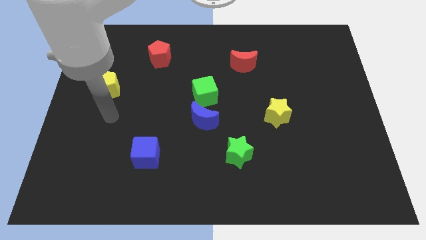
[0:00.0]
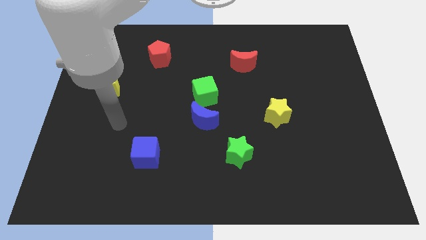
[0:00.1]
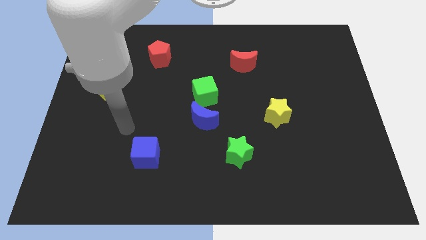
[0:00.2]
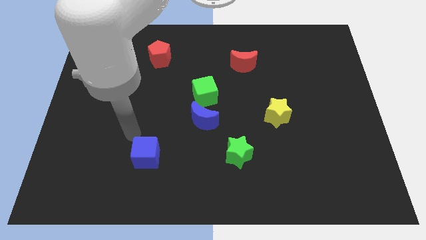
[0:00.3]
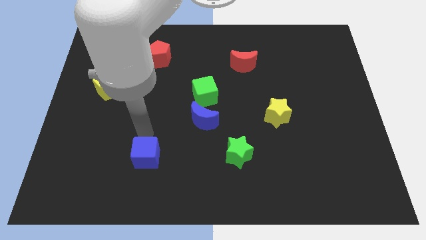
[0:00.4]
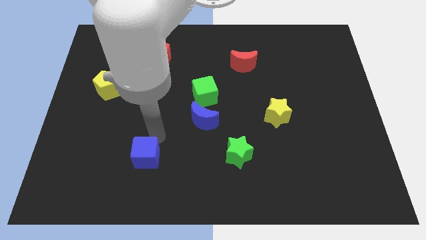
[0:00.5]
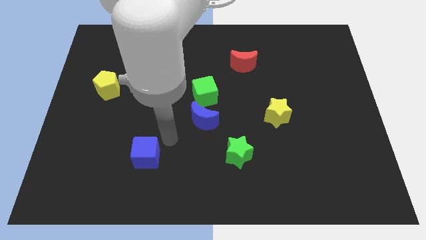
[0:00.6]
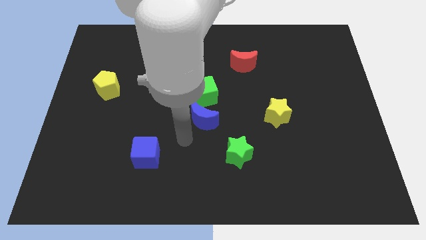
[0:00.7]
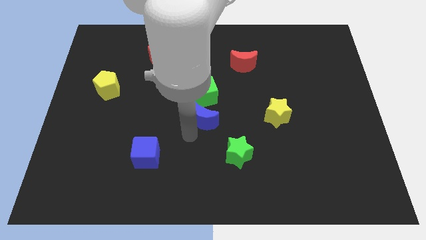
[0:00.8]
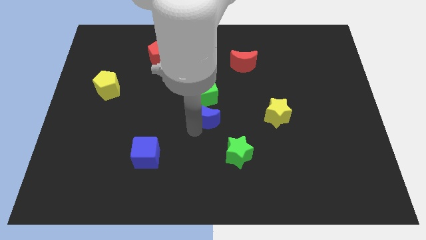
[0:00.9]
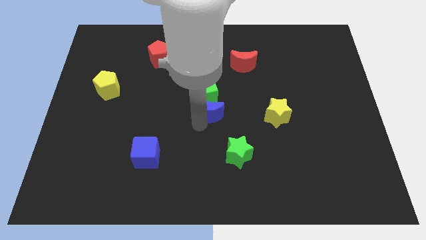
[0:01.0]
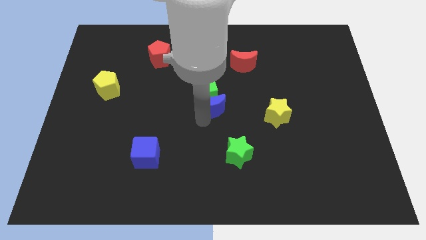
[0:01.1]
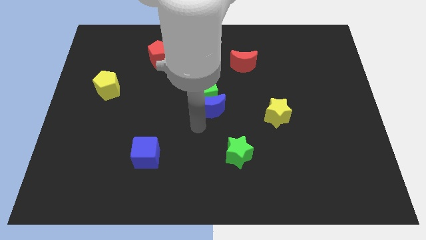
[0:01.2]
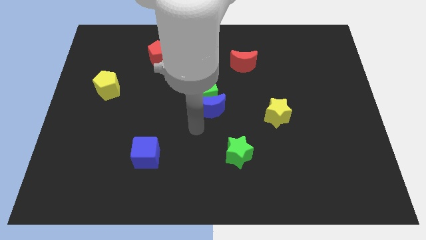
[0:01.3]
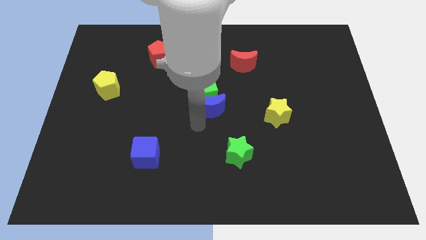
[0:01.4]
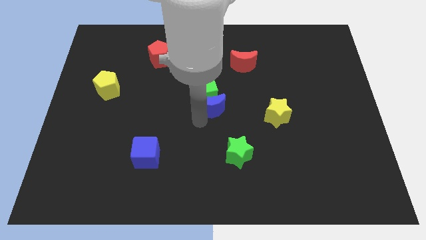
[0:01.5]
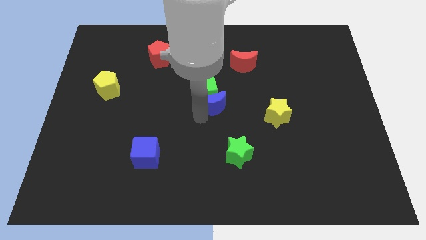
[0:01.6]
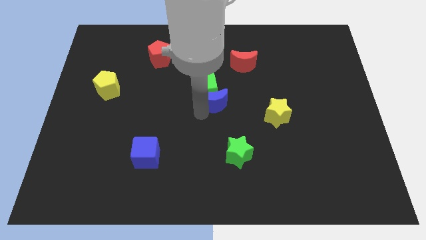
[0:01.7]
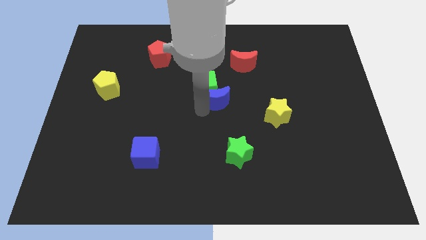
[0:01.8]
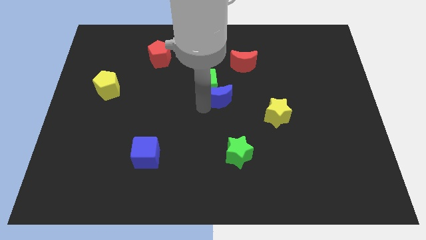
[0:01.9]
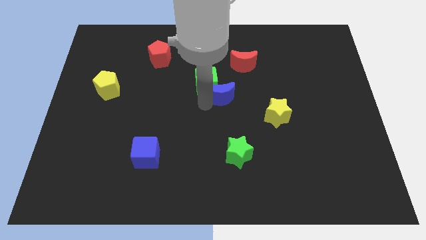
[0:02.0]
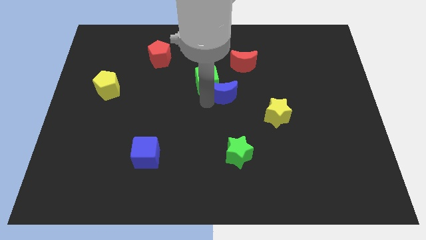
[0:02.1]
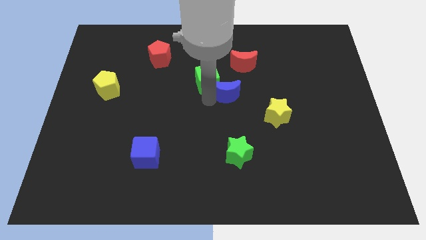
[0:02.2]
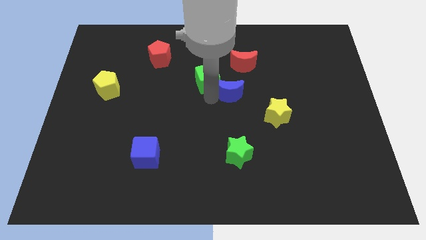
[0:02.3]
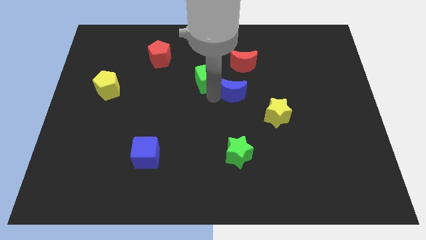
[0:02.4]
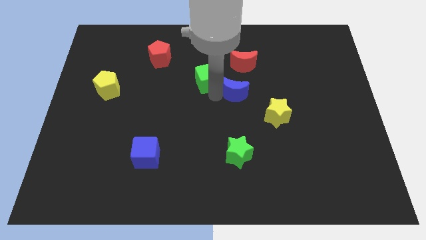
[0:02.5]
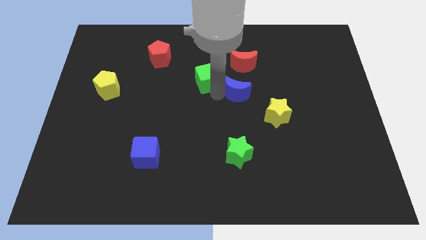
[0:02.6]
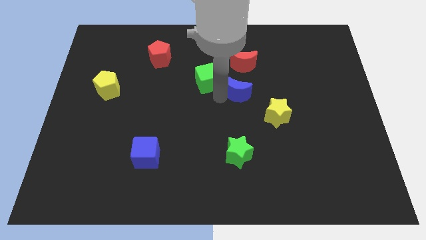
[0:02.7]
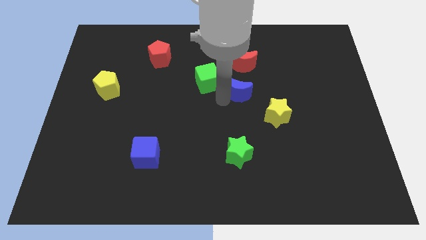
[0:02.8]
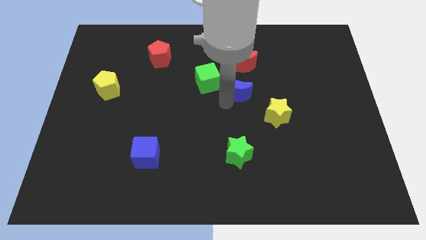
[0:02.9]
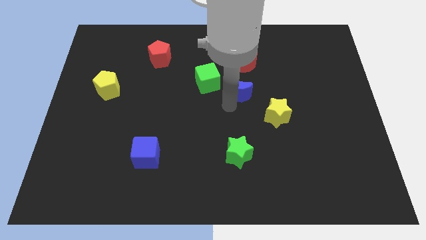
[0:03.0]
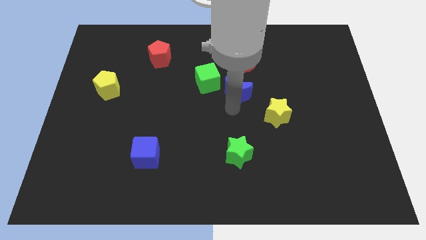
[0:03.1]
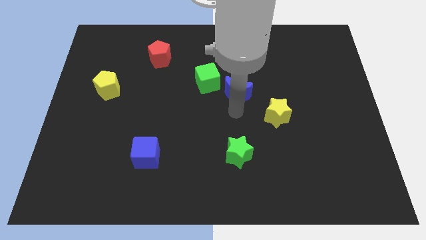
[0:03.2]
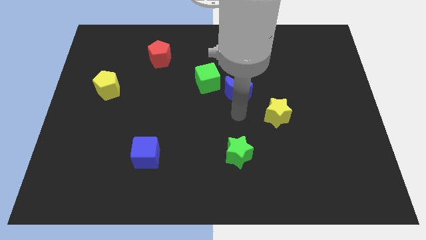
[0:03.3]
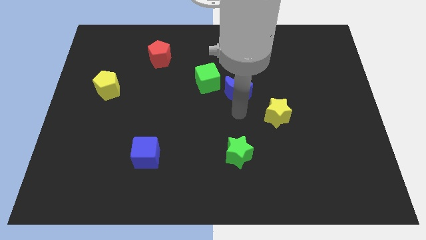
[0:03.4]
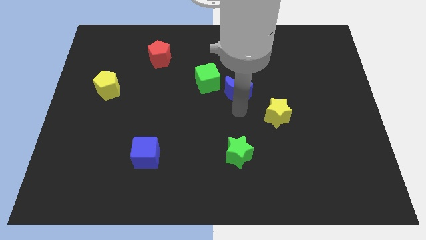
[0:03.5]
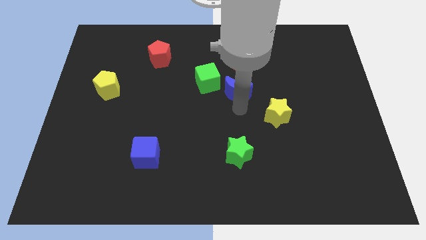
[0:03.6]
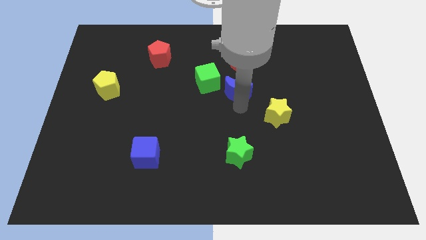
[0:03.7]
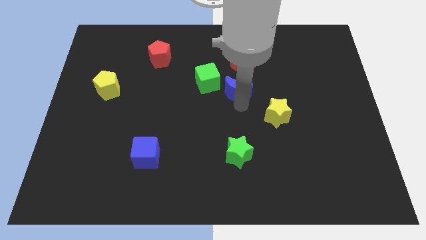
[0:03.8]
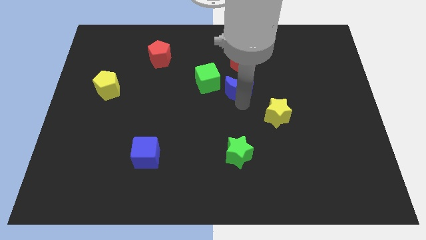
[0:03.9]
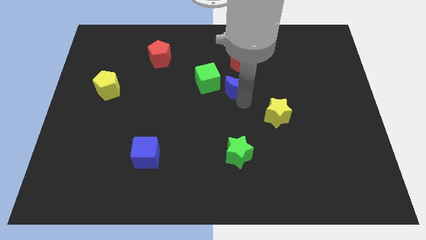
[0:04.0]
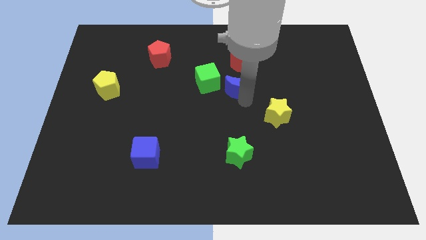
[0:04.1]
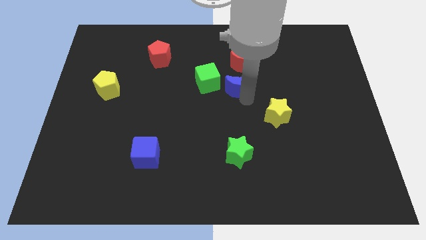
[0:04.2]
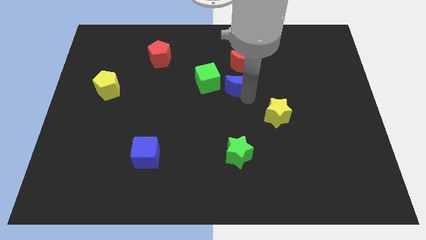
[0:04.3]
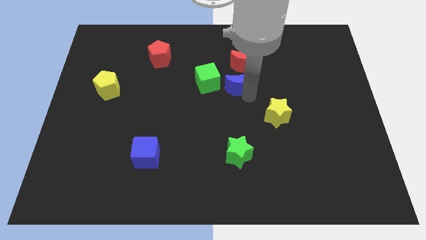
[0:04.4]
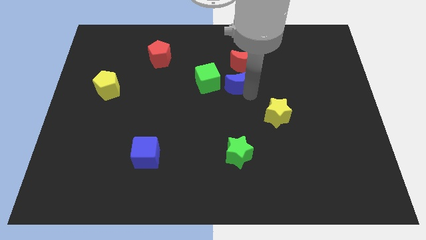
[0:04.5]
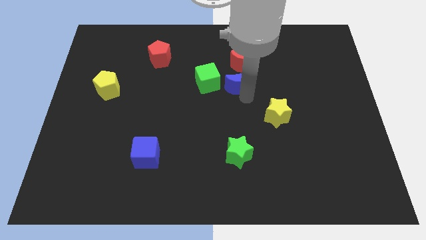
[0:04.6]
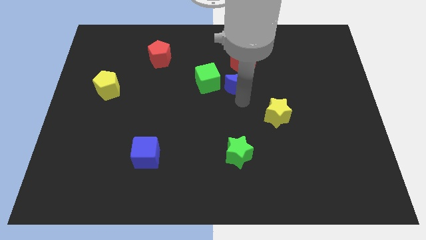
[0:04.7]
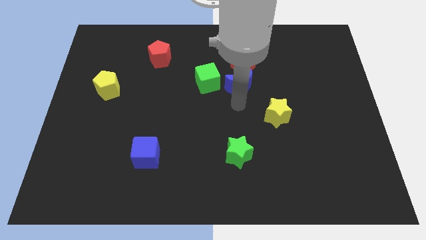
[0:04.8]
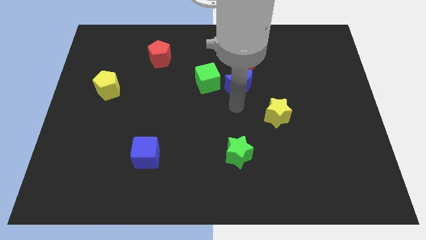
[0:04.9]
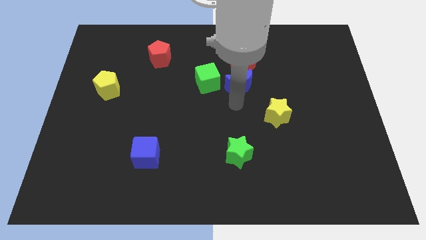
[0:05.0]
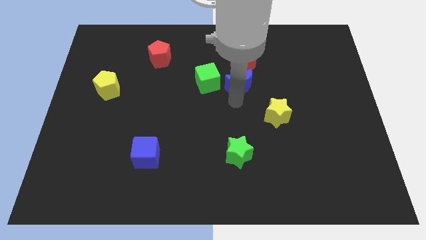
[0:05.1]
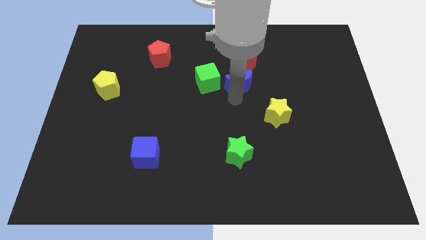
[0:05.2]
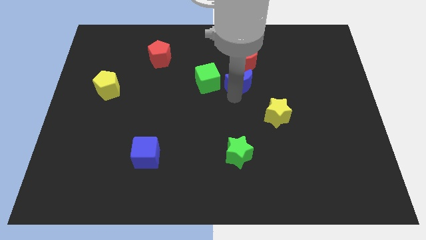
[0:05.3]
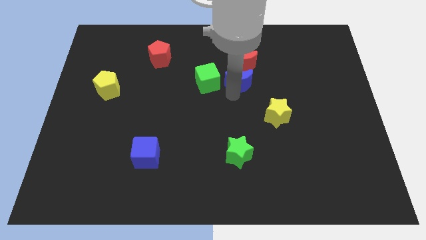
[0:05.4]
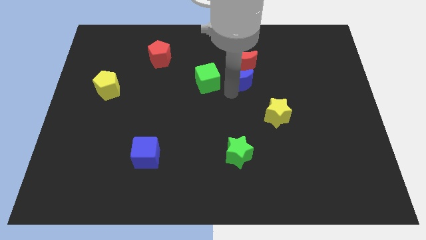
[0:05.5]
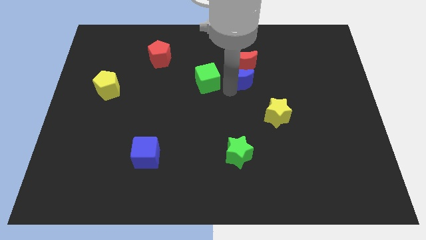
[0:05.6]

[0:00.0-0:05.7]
slide the blue moon to the red moon

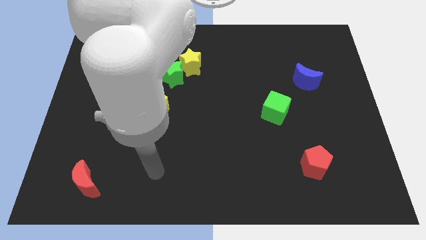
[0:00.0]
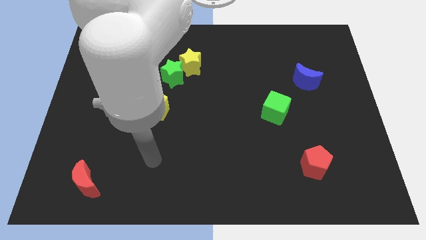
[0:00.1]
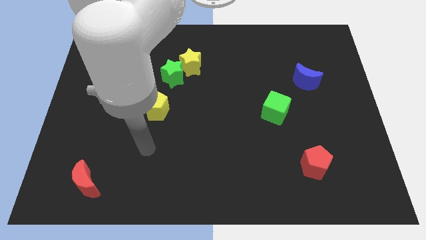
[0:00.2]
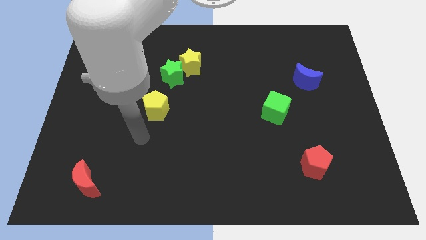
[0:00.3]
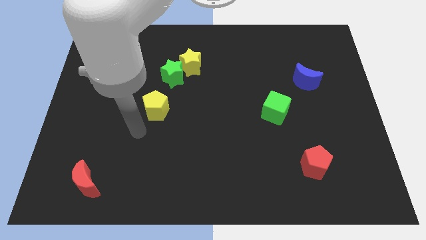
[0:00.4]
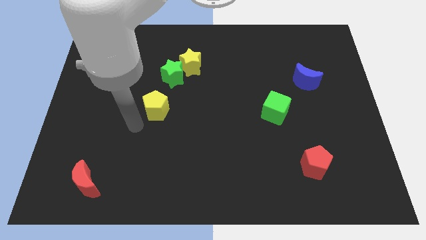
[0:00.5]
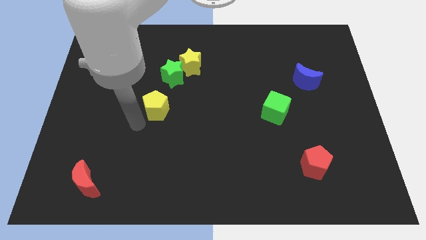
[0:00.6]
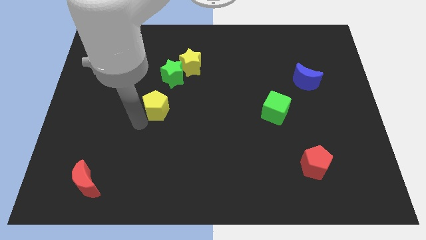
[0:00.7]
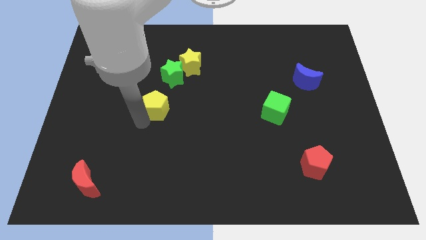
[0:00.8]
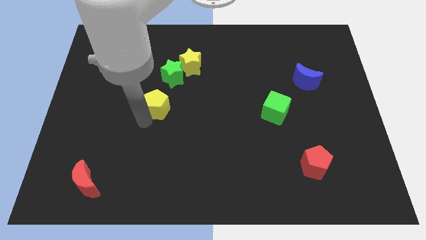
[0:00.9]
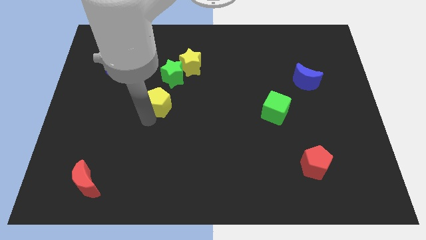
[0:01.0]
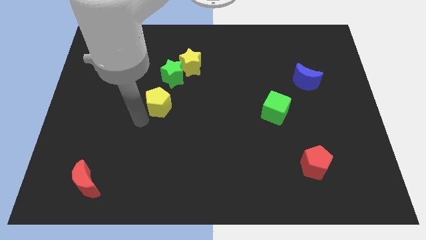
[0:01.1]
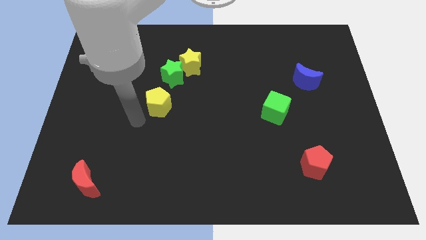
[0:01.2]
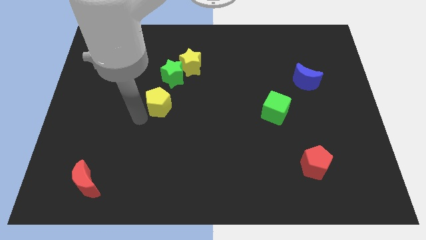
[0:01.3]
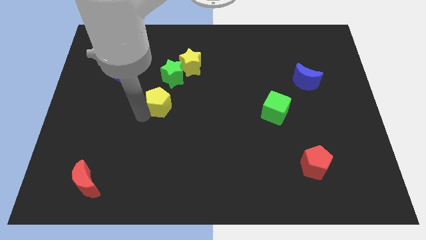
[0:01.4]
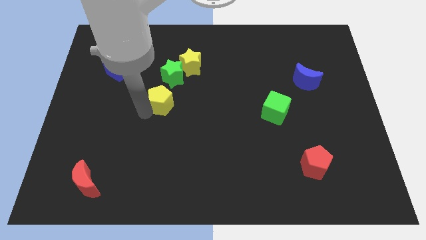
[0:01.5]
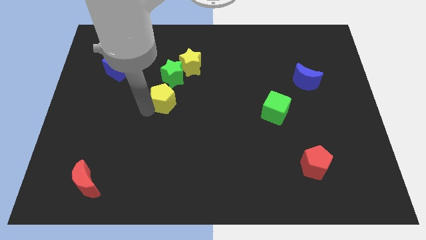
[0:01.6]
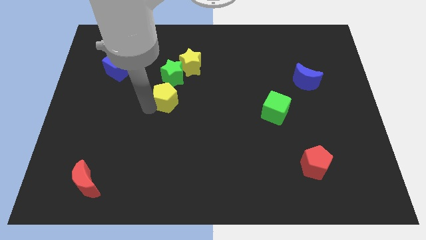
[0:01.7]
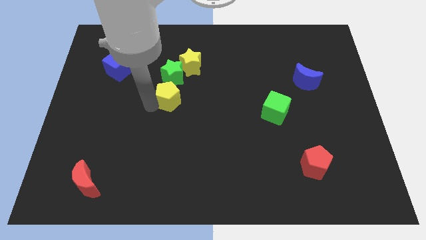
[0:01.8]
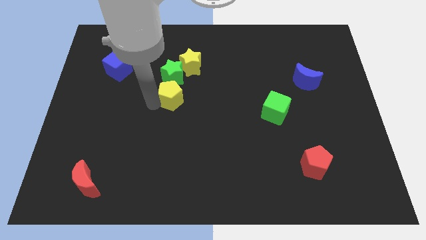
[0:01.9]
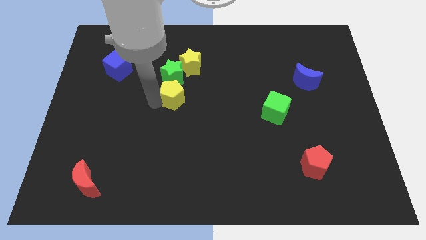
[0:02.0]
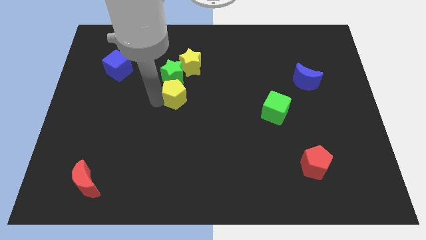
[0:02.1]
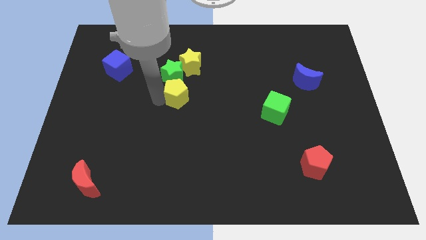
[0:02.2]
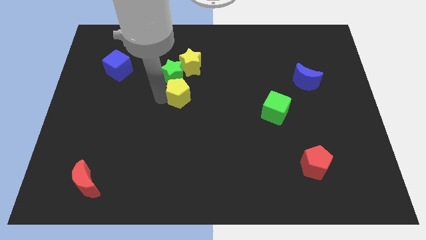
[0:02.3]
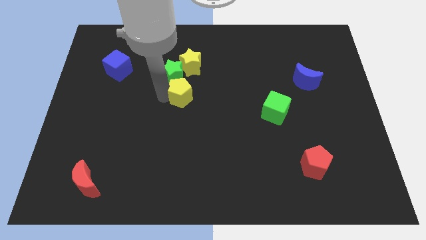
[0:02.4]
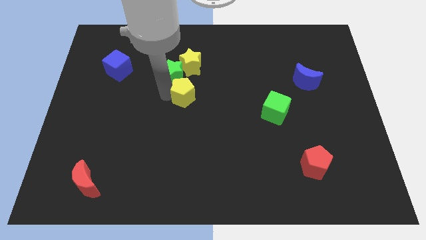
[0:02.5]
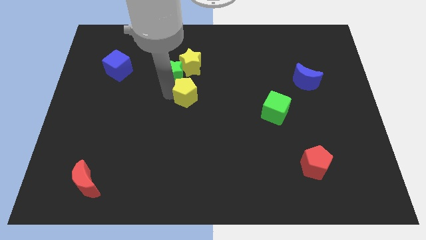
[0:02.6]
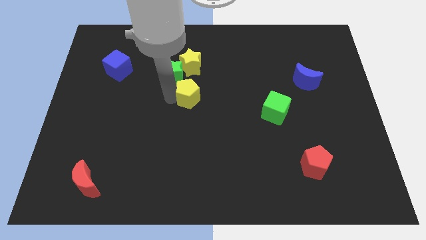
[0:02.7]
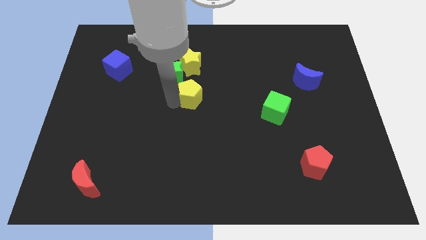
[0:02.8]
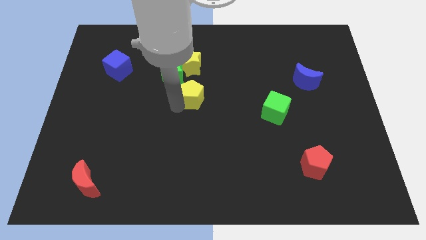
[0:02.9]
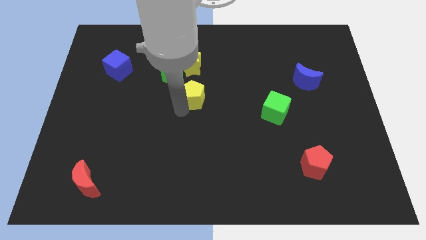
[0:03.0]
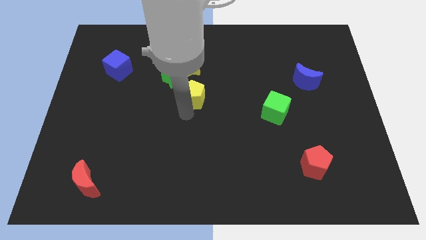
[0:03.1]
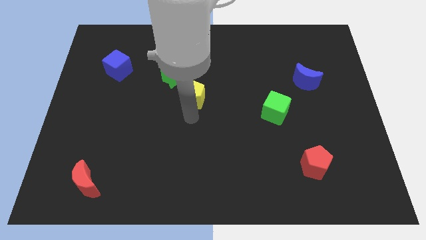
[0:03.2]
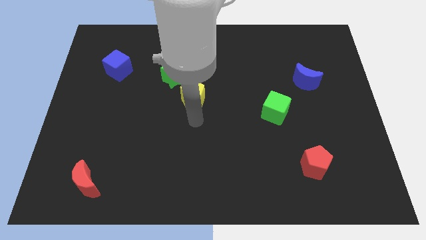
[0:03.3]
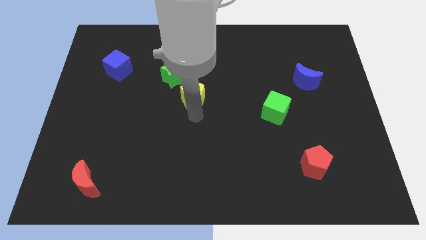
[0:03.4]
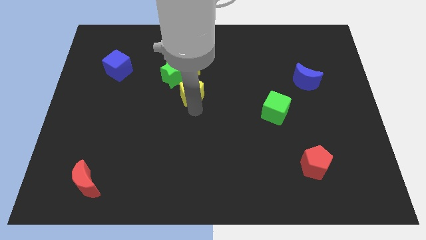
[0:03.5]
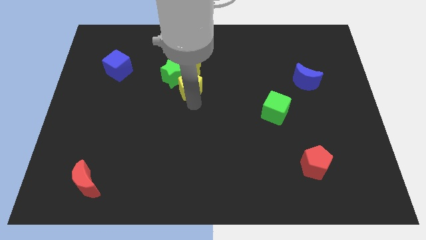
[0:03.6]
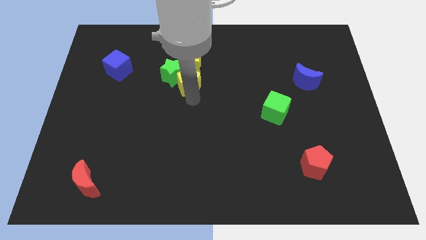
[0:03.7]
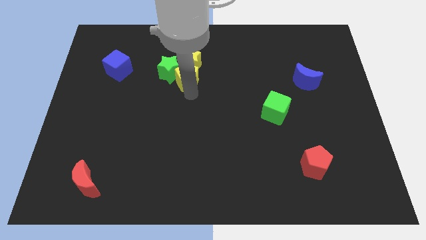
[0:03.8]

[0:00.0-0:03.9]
push the yellow pentagon next to the yellow star
